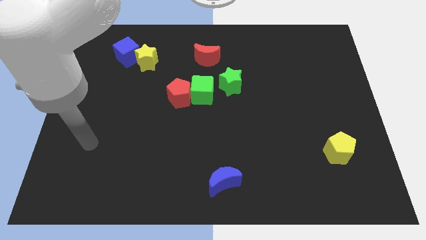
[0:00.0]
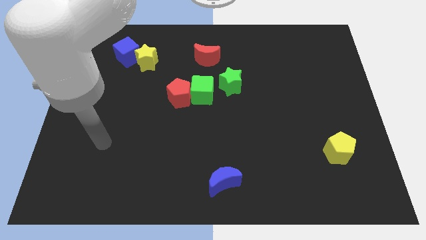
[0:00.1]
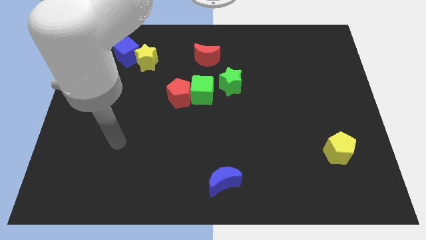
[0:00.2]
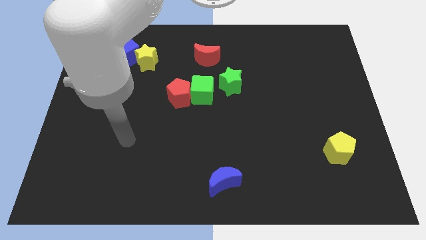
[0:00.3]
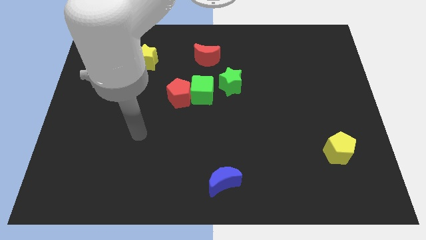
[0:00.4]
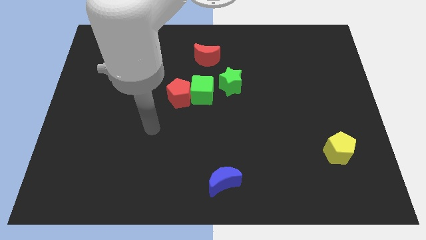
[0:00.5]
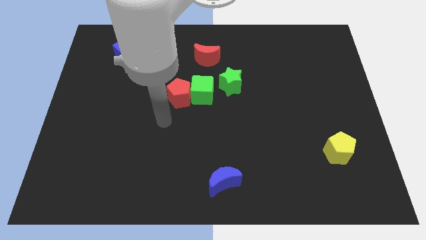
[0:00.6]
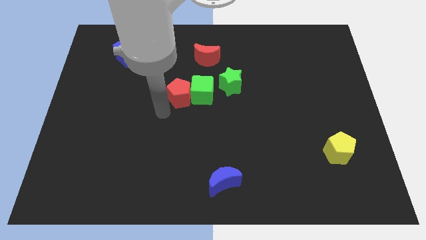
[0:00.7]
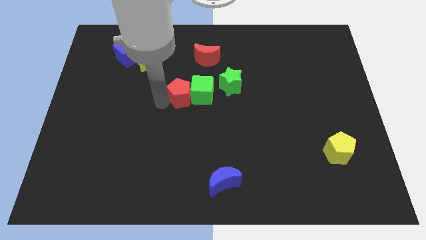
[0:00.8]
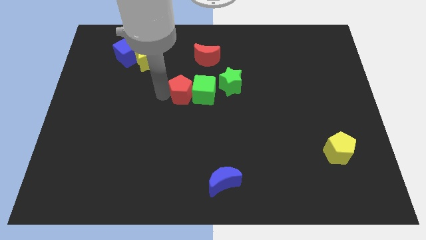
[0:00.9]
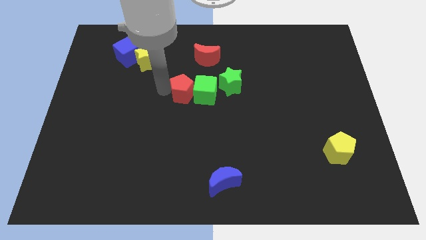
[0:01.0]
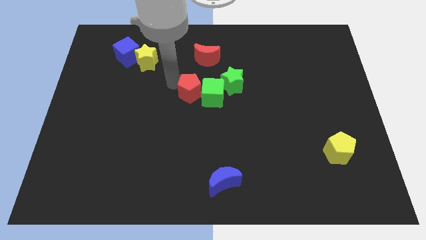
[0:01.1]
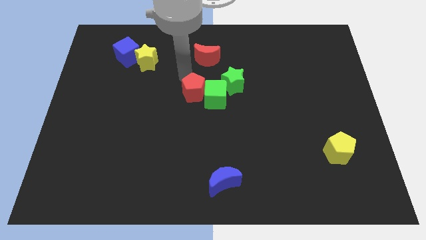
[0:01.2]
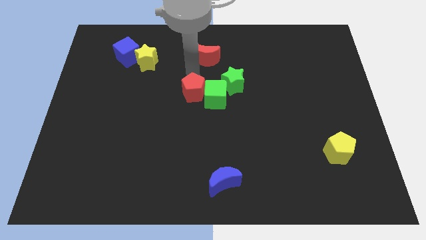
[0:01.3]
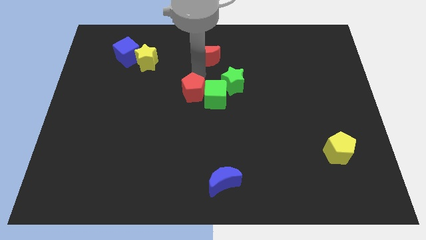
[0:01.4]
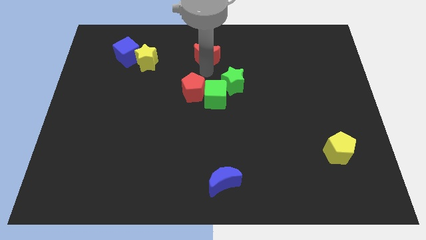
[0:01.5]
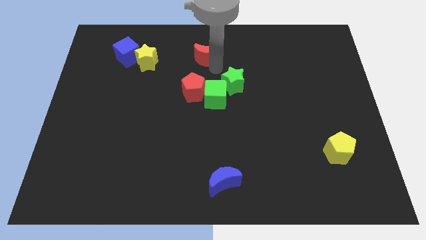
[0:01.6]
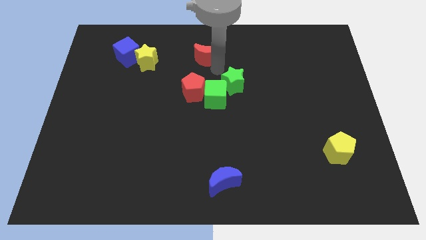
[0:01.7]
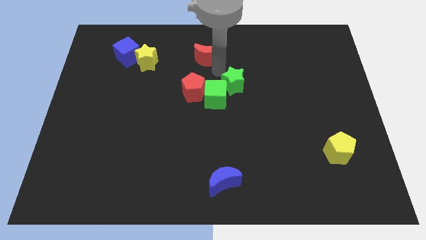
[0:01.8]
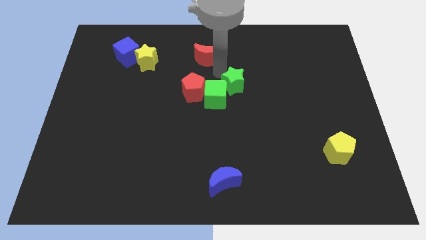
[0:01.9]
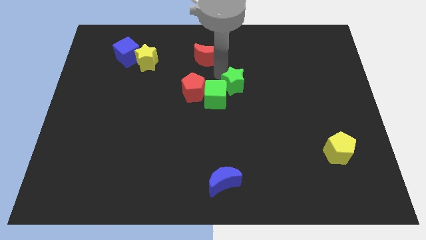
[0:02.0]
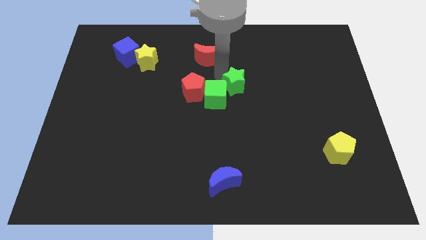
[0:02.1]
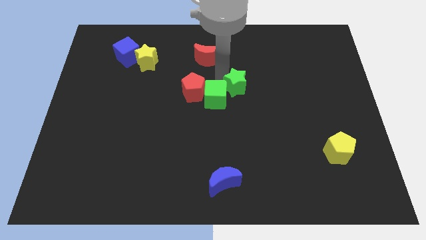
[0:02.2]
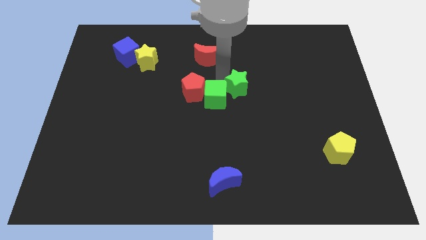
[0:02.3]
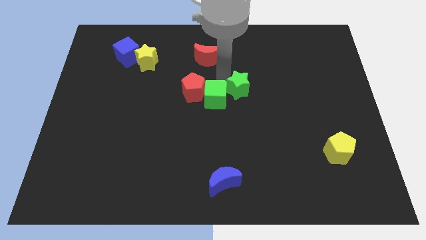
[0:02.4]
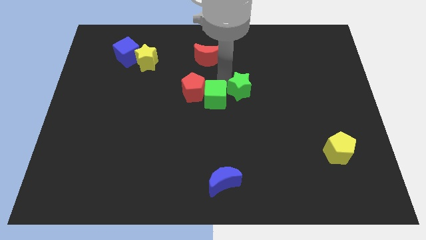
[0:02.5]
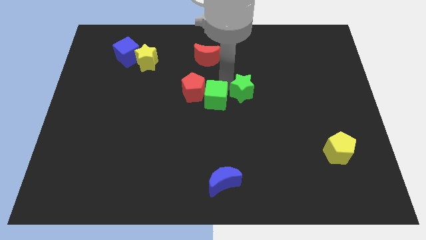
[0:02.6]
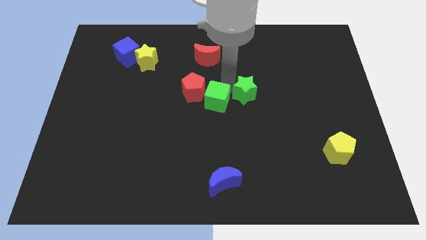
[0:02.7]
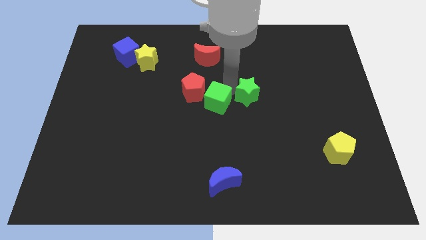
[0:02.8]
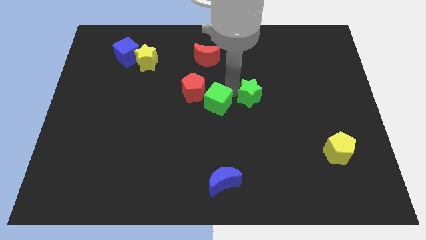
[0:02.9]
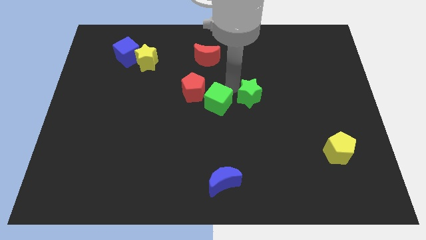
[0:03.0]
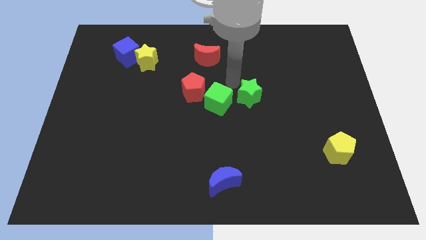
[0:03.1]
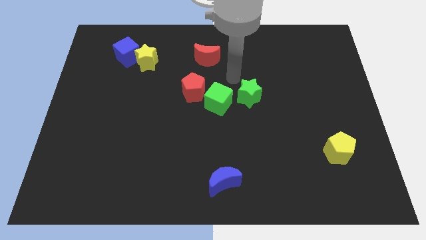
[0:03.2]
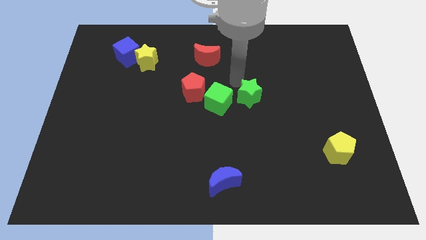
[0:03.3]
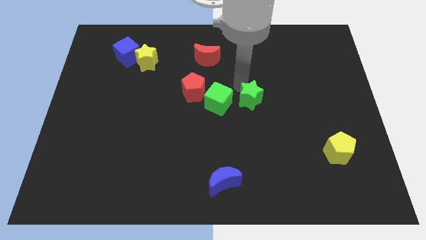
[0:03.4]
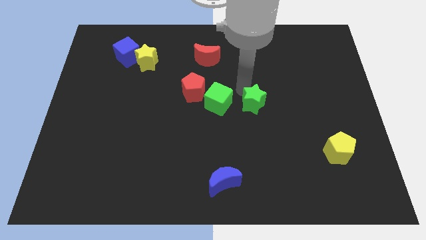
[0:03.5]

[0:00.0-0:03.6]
slightly slide the green star downwards and then right

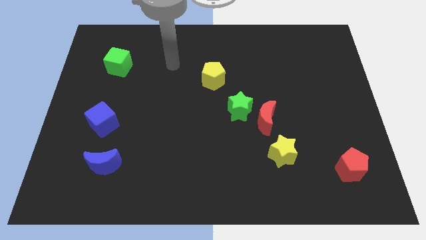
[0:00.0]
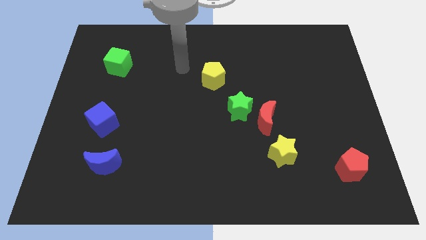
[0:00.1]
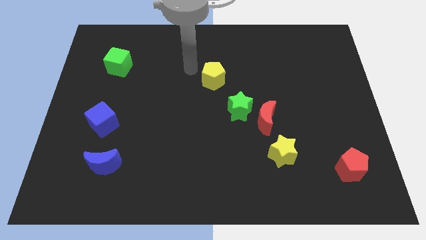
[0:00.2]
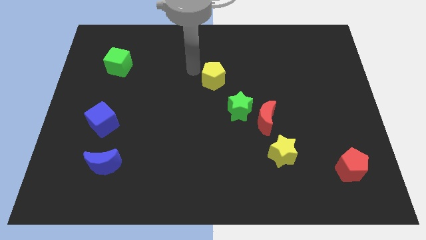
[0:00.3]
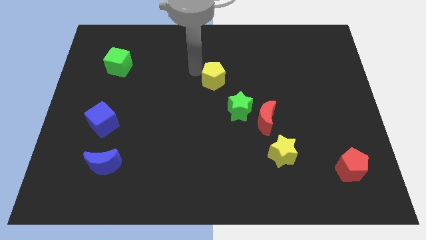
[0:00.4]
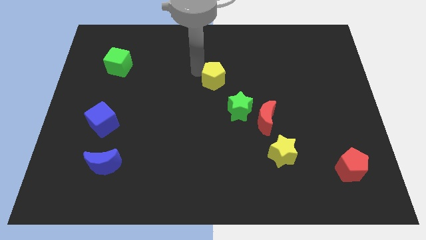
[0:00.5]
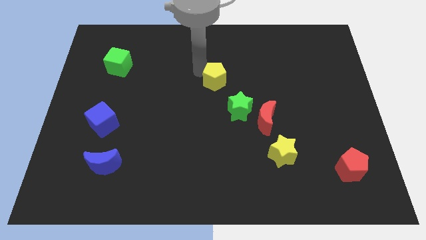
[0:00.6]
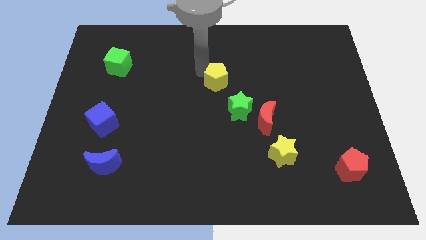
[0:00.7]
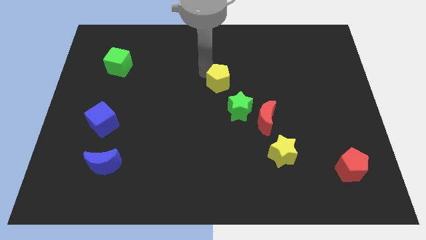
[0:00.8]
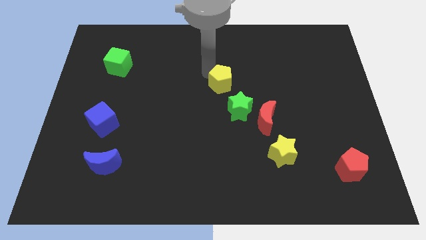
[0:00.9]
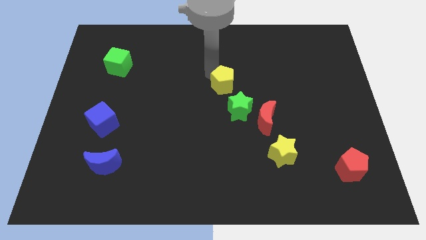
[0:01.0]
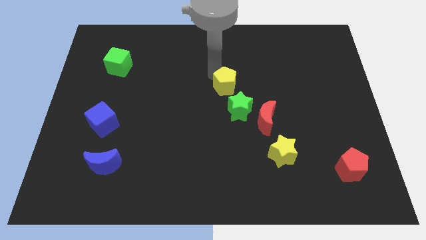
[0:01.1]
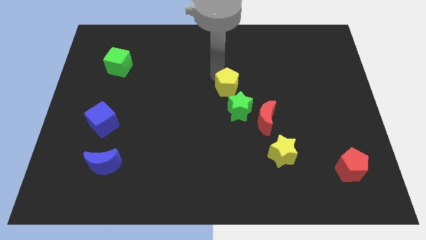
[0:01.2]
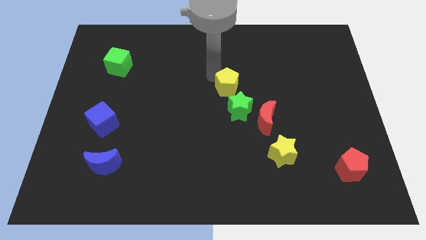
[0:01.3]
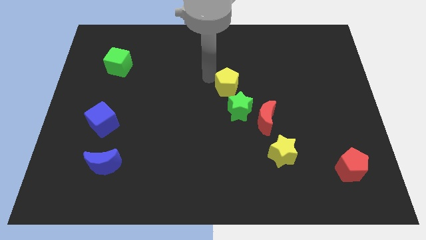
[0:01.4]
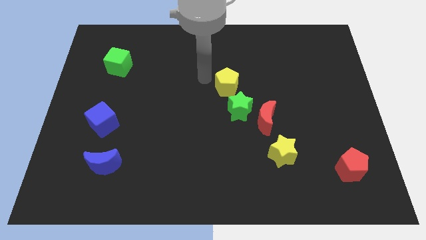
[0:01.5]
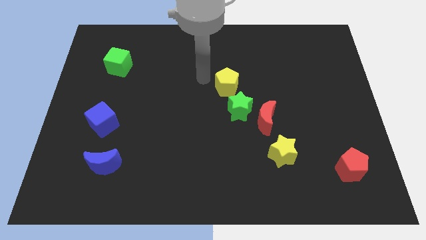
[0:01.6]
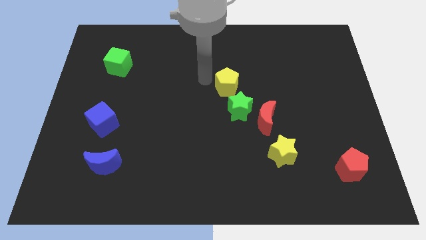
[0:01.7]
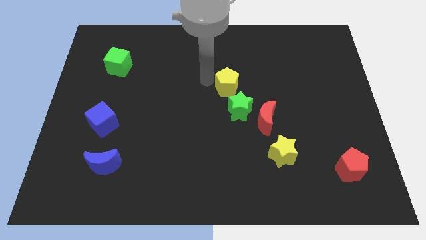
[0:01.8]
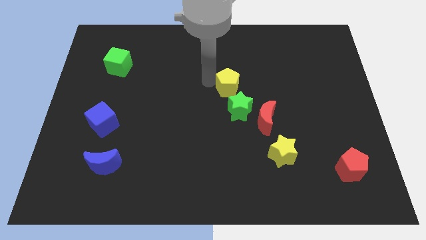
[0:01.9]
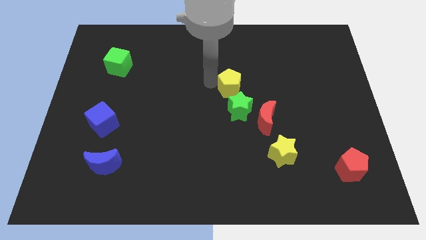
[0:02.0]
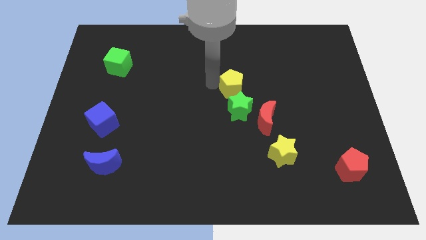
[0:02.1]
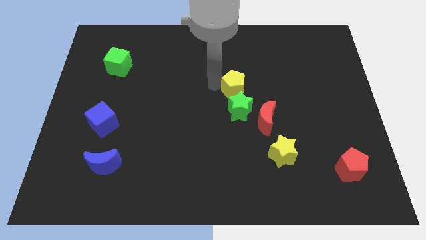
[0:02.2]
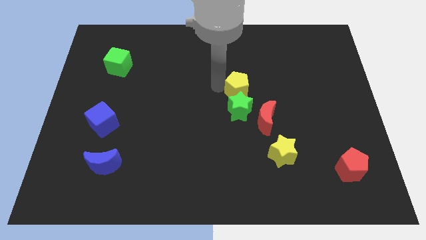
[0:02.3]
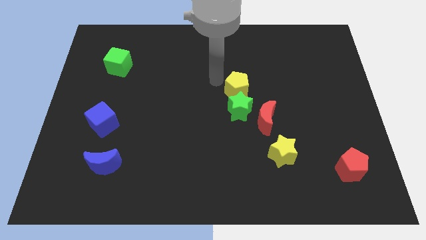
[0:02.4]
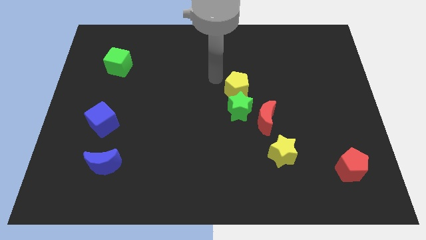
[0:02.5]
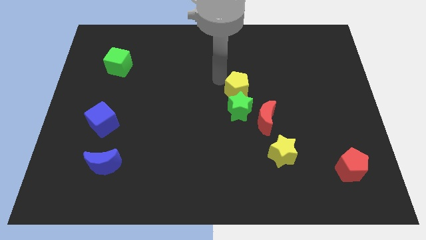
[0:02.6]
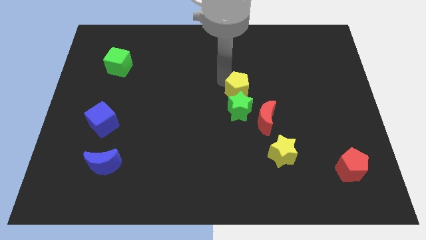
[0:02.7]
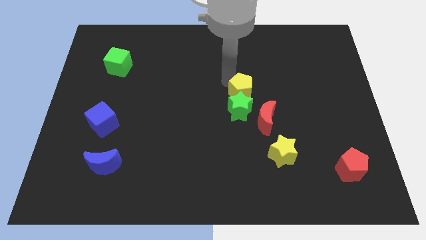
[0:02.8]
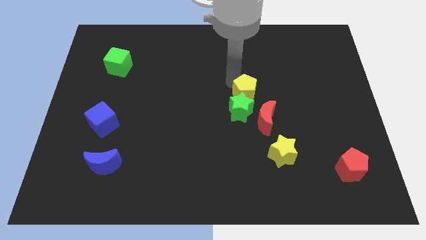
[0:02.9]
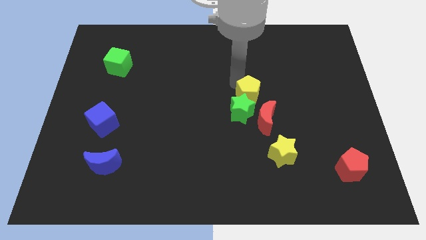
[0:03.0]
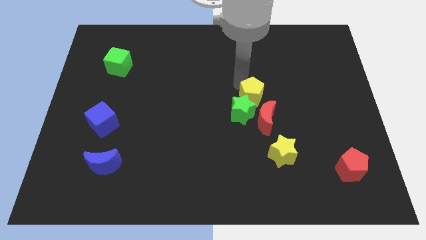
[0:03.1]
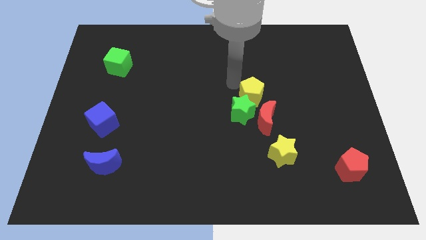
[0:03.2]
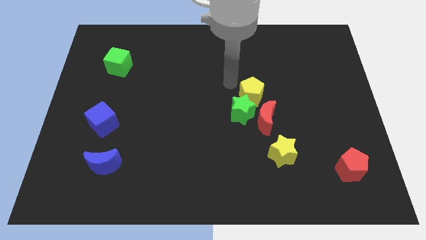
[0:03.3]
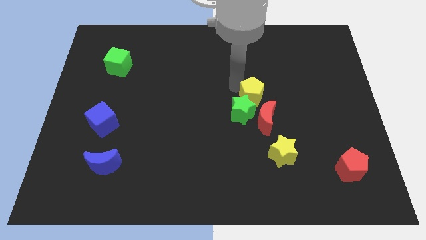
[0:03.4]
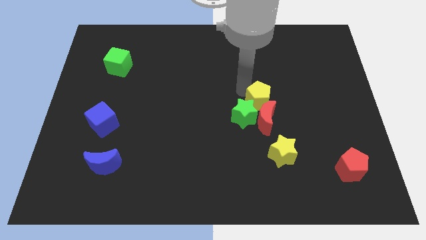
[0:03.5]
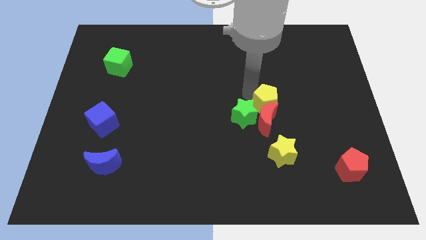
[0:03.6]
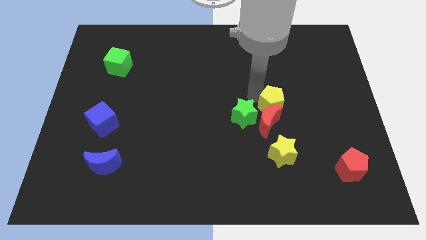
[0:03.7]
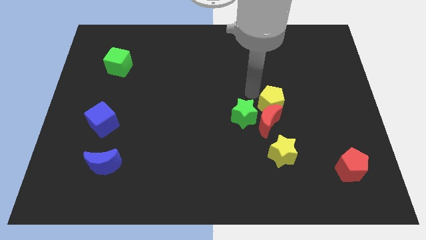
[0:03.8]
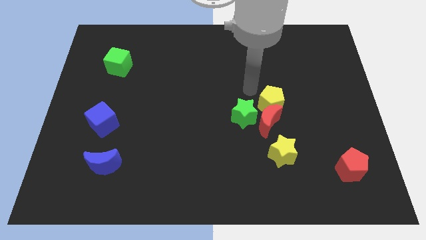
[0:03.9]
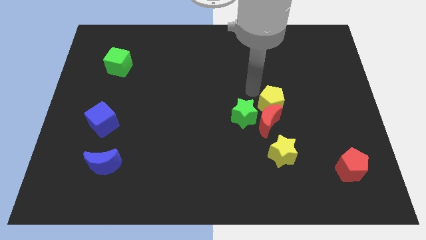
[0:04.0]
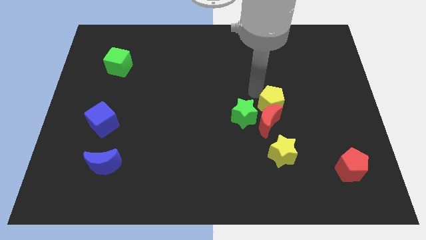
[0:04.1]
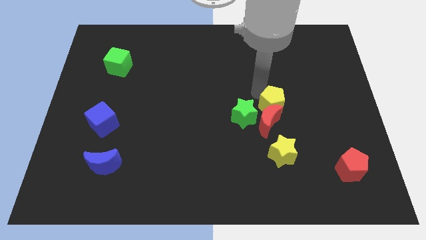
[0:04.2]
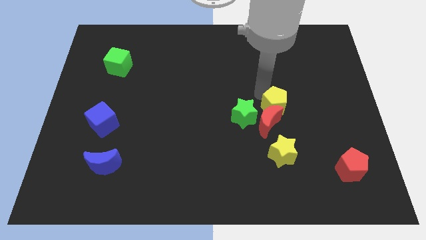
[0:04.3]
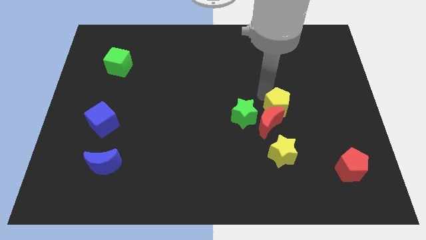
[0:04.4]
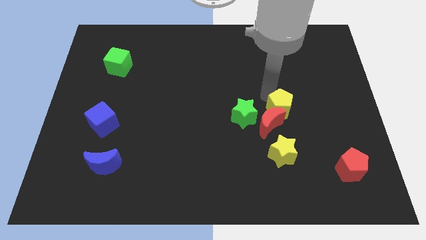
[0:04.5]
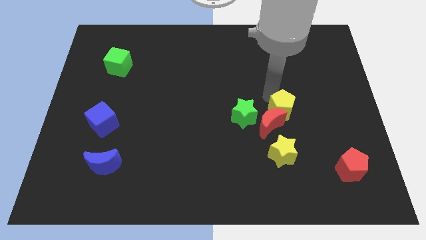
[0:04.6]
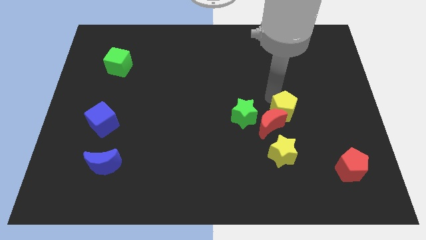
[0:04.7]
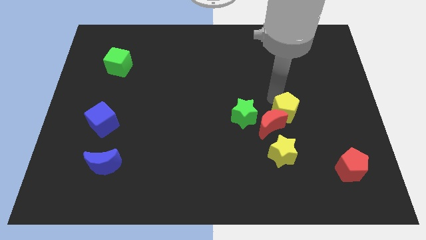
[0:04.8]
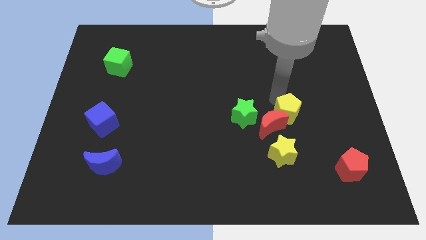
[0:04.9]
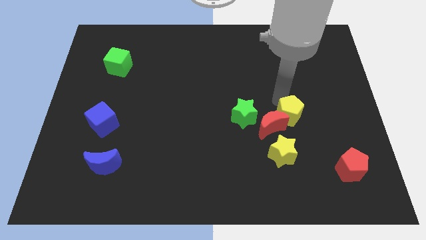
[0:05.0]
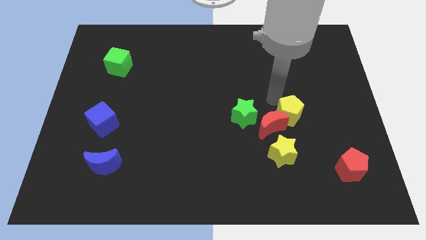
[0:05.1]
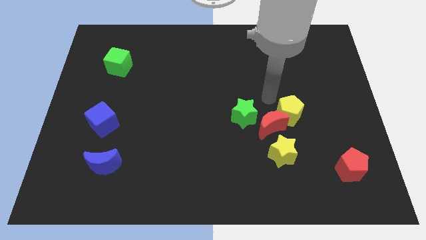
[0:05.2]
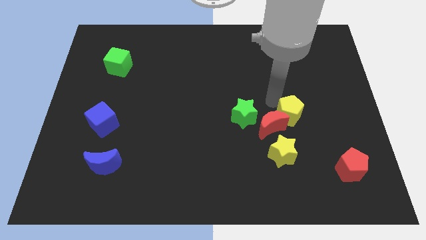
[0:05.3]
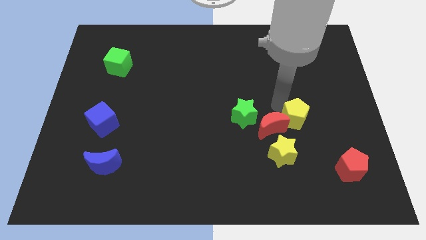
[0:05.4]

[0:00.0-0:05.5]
push the yellow pentagon downwards and then to the right
